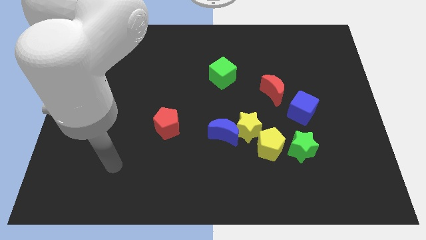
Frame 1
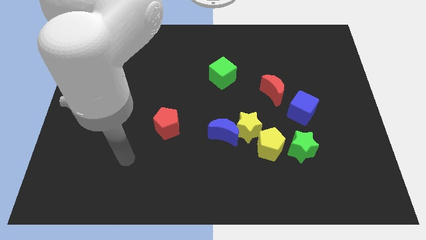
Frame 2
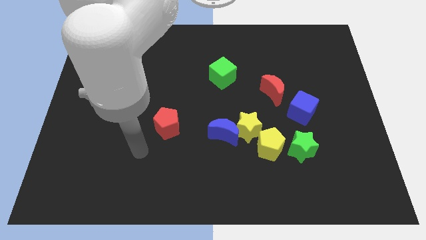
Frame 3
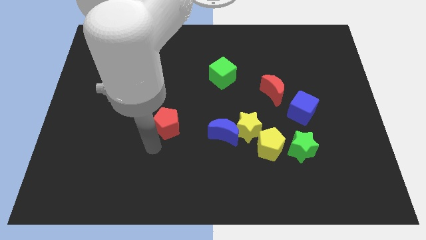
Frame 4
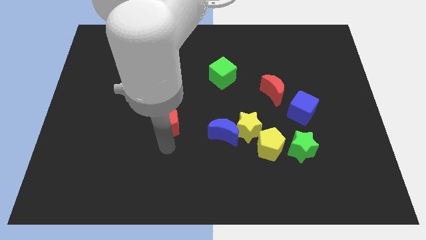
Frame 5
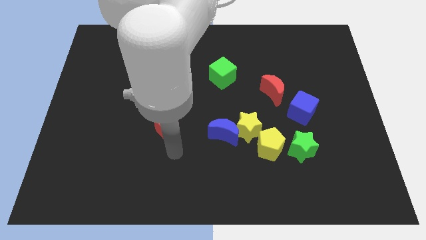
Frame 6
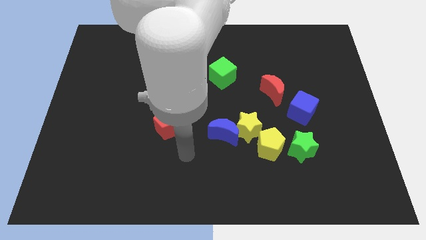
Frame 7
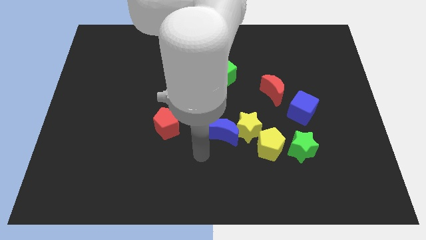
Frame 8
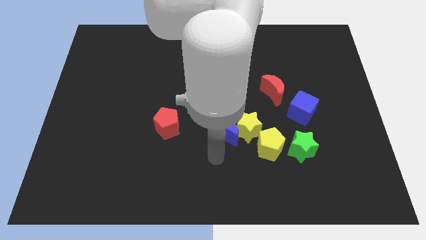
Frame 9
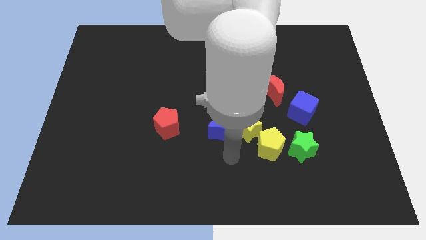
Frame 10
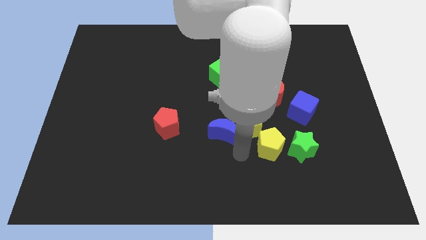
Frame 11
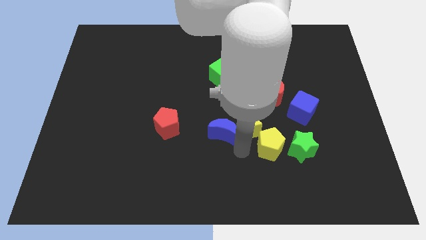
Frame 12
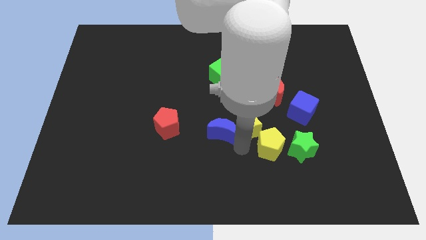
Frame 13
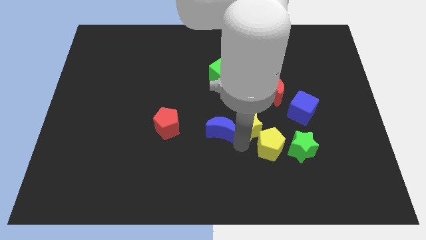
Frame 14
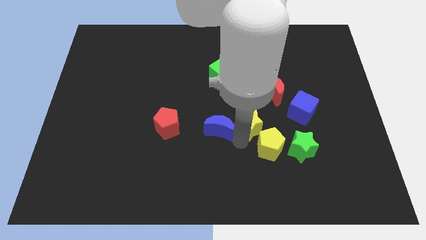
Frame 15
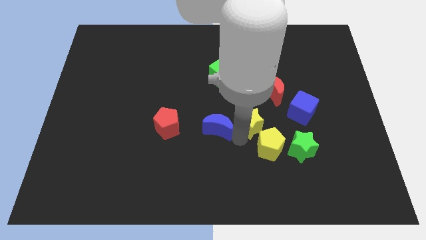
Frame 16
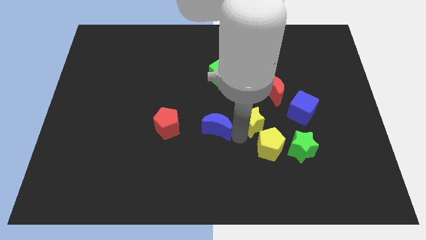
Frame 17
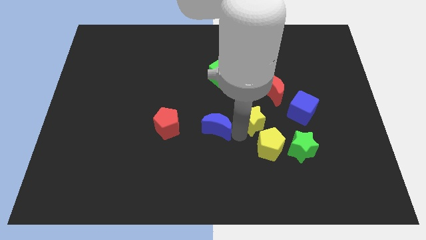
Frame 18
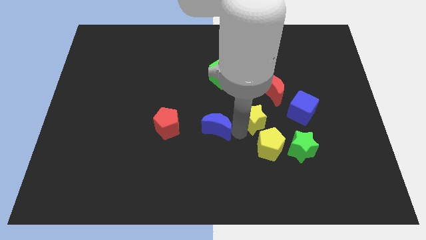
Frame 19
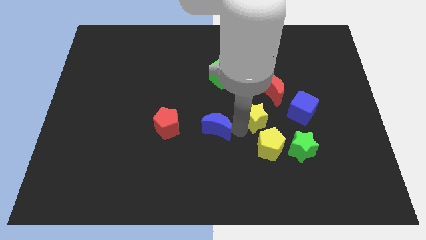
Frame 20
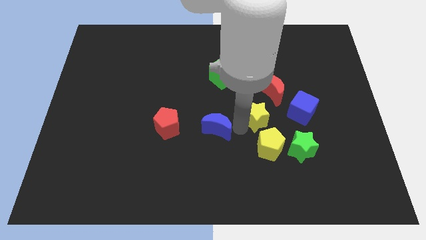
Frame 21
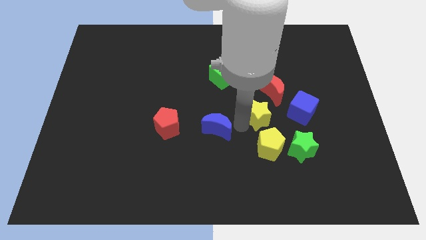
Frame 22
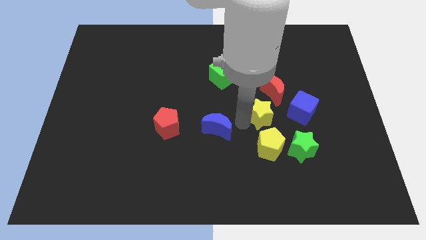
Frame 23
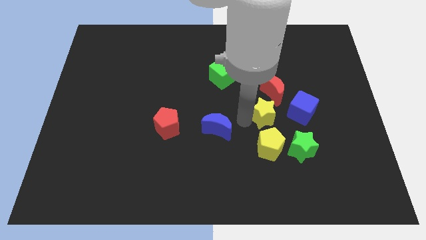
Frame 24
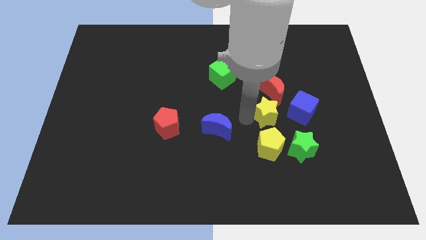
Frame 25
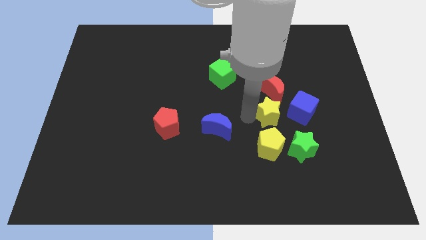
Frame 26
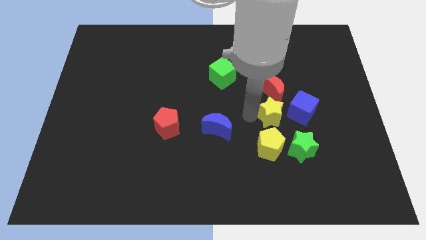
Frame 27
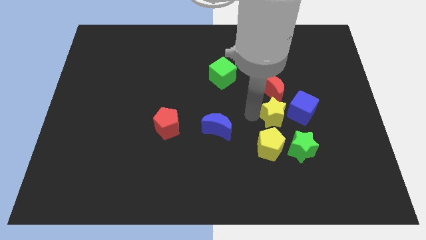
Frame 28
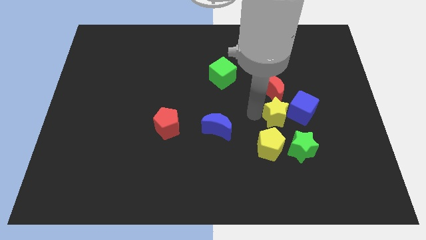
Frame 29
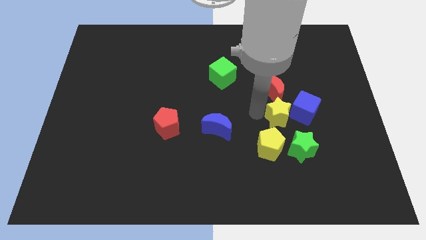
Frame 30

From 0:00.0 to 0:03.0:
pull the yellow star apart from the blue moon and yellow pentagon

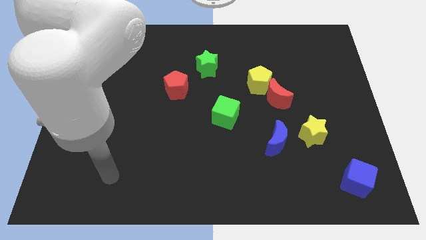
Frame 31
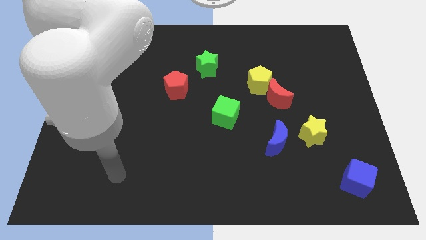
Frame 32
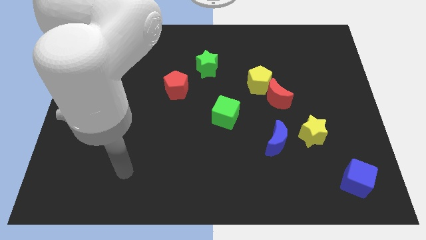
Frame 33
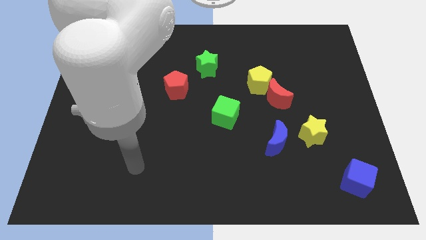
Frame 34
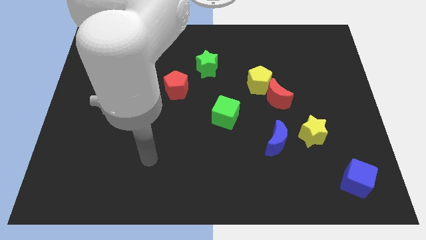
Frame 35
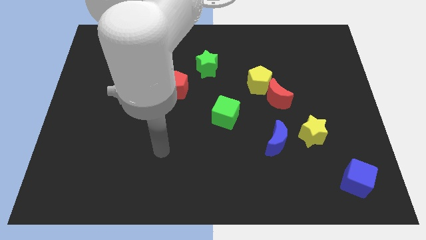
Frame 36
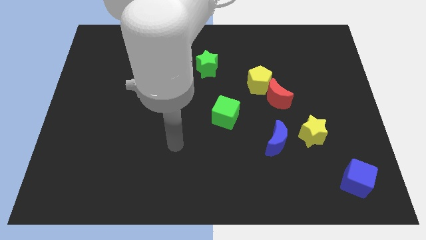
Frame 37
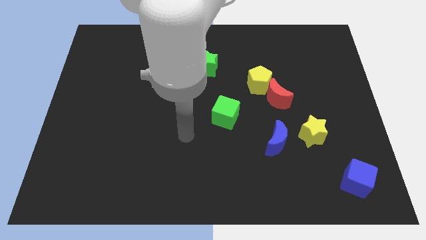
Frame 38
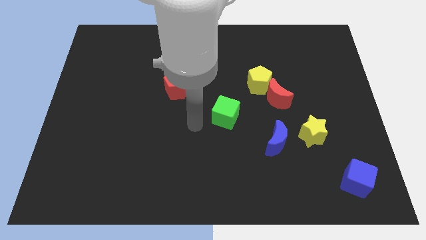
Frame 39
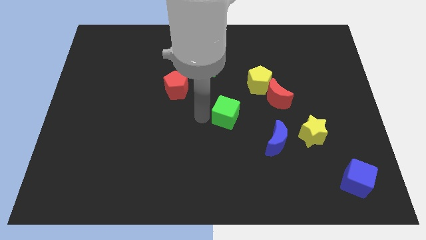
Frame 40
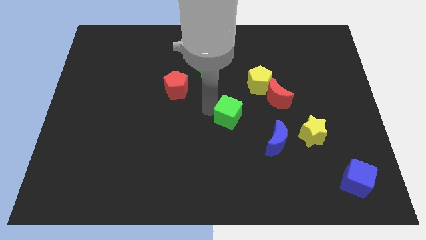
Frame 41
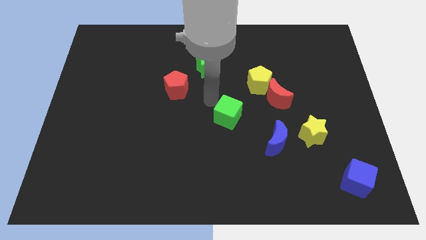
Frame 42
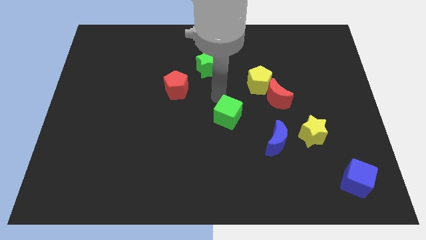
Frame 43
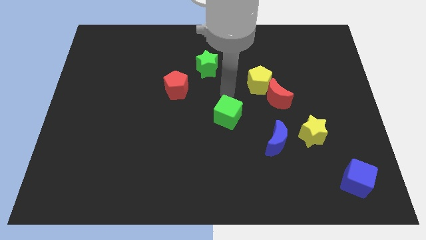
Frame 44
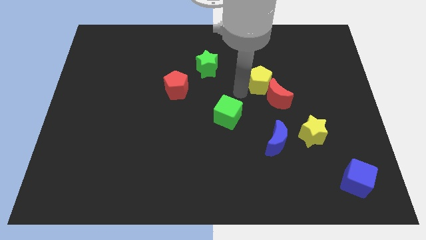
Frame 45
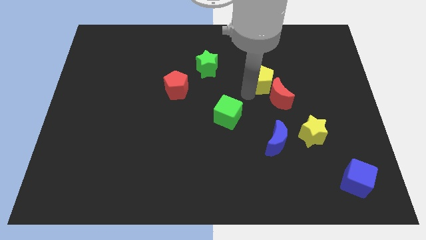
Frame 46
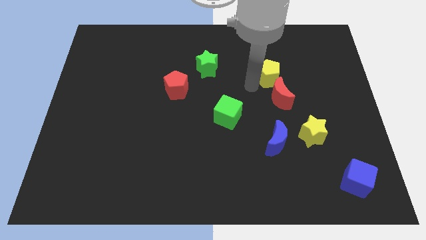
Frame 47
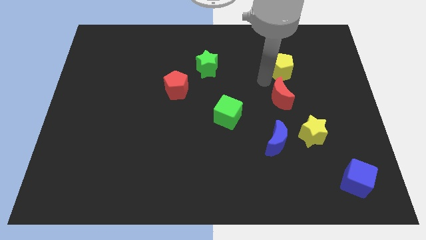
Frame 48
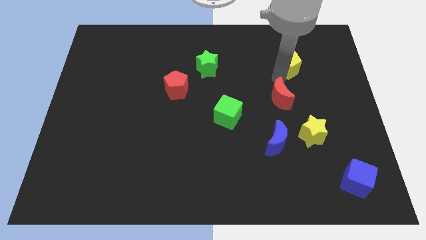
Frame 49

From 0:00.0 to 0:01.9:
separate the red moon from the yellow pentagon

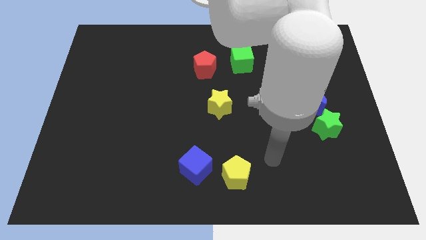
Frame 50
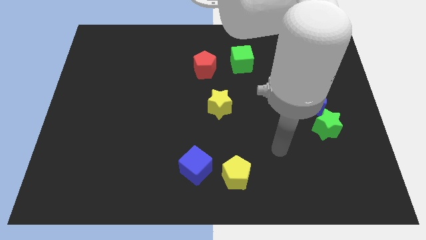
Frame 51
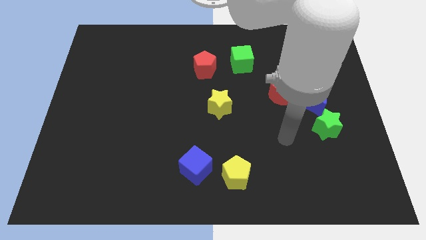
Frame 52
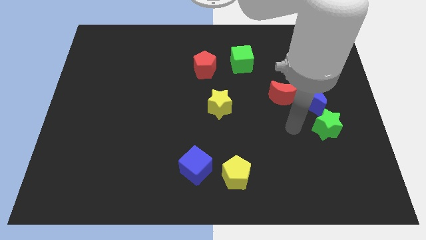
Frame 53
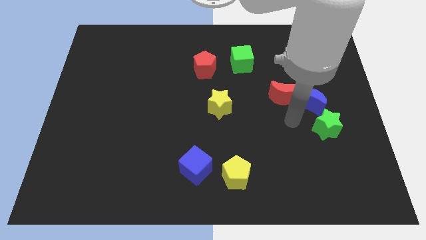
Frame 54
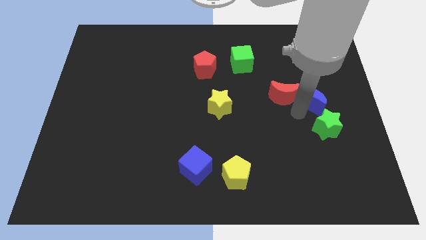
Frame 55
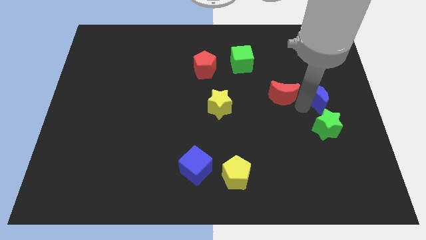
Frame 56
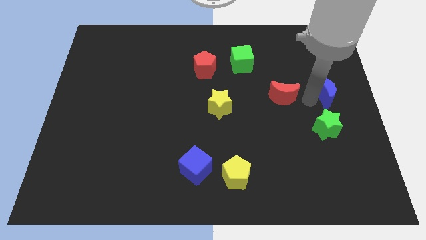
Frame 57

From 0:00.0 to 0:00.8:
pull the red moon apart from the blue moon

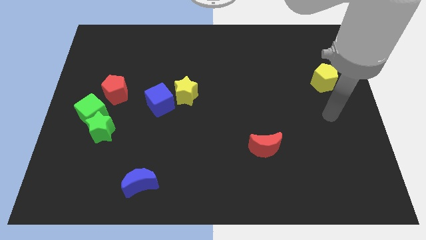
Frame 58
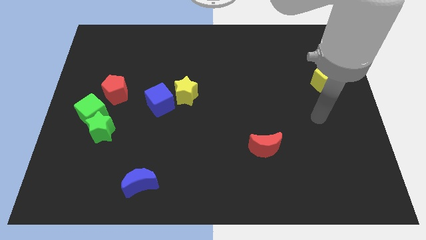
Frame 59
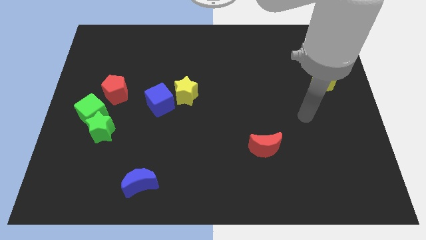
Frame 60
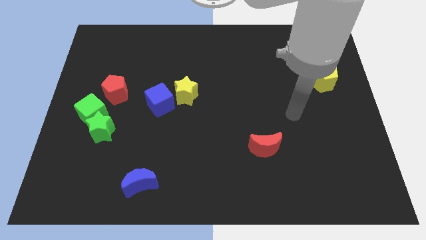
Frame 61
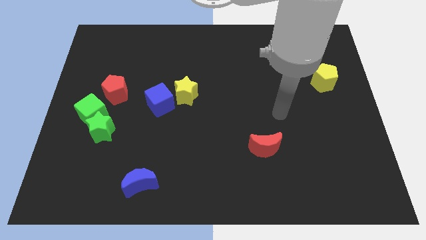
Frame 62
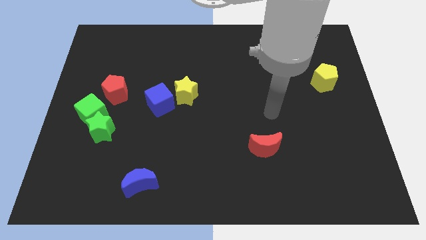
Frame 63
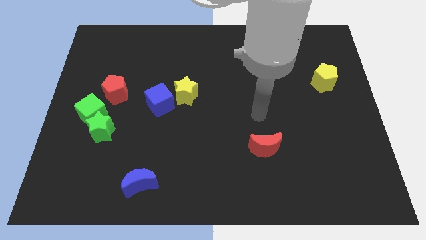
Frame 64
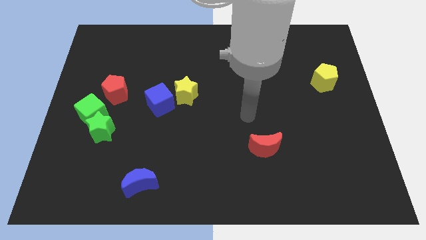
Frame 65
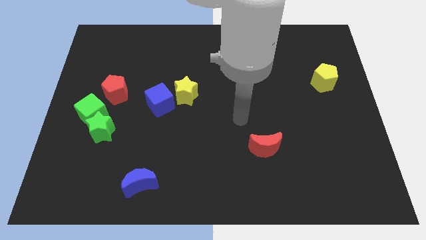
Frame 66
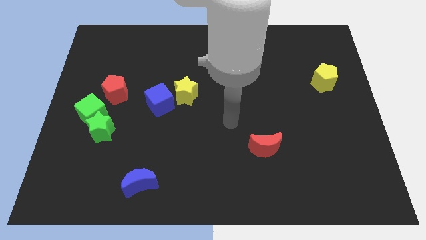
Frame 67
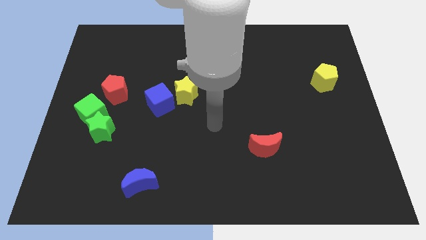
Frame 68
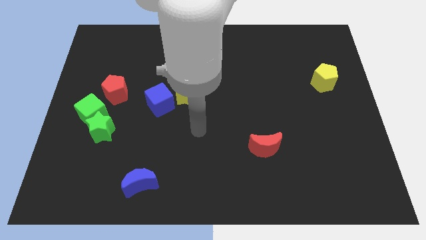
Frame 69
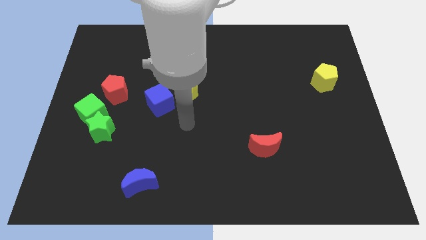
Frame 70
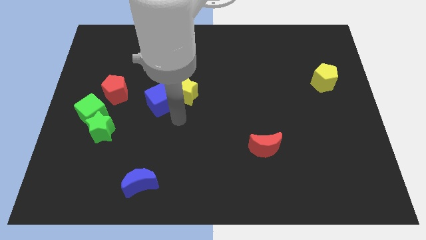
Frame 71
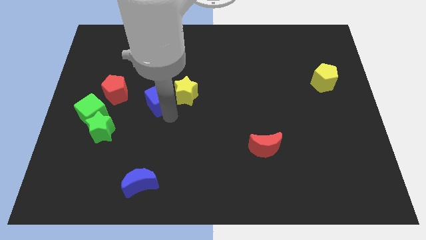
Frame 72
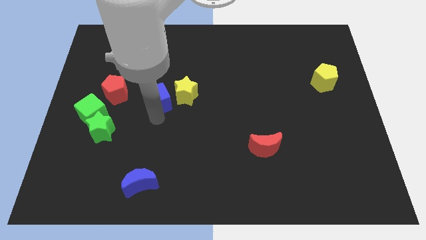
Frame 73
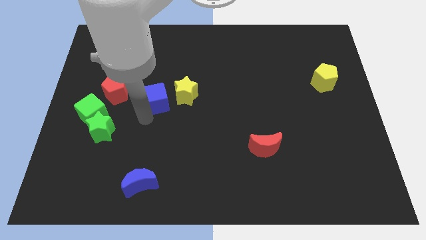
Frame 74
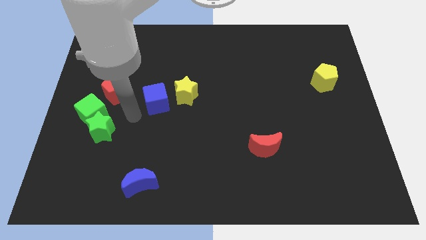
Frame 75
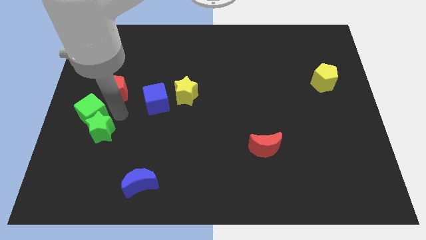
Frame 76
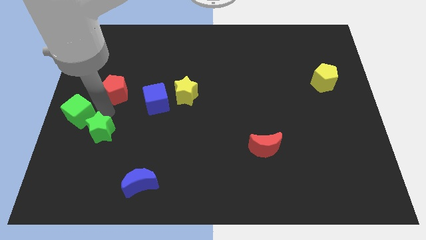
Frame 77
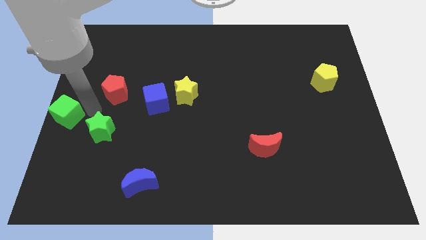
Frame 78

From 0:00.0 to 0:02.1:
separate the green star from the green cube

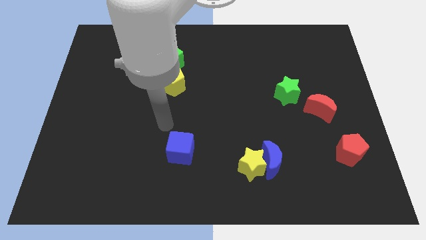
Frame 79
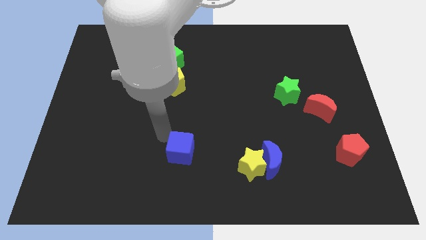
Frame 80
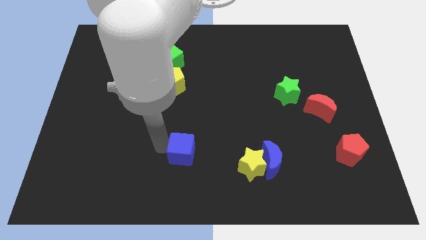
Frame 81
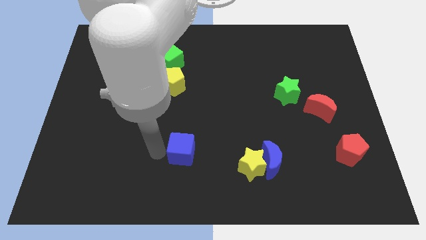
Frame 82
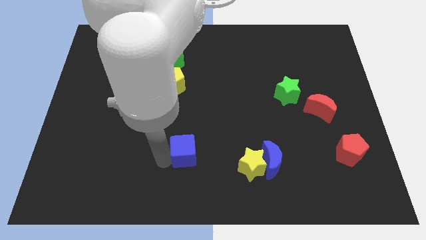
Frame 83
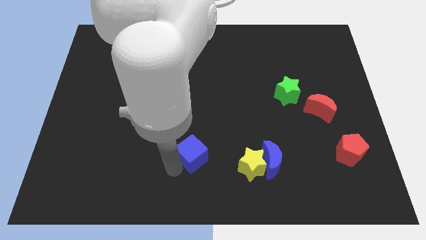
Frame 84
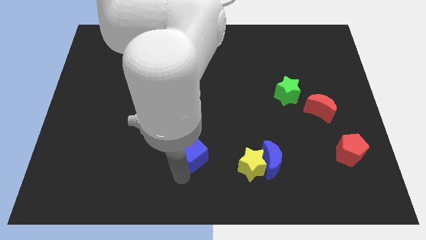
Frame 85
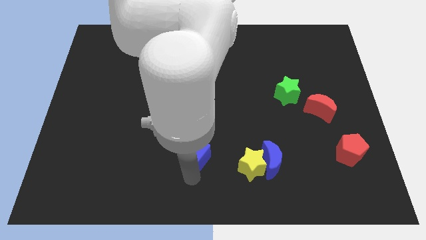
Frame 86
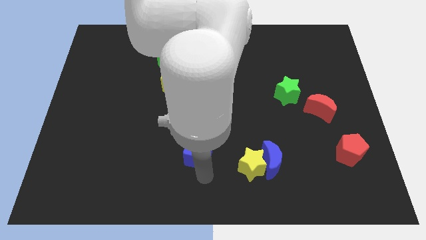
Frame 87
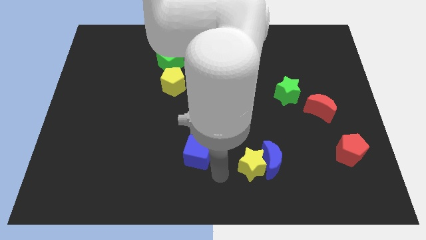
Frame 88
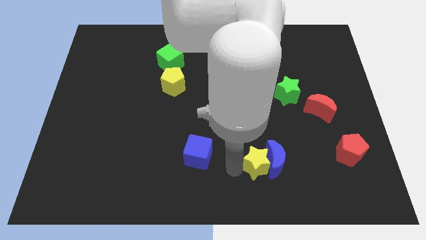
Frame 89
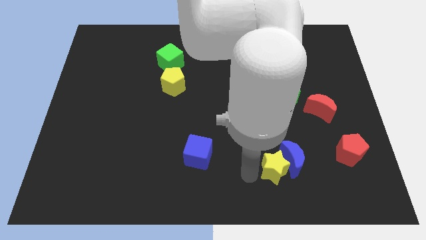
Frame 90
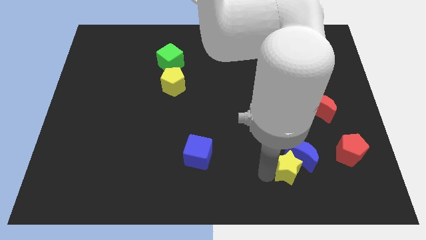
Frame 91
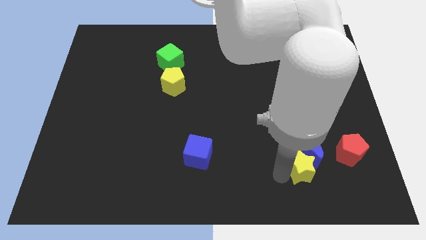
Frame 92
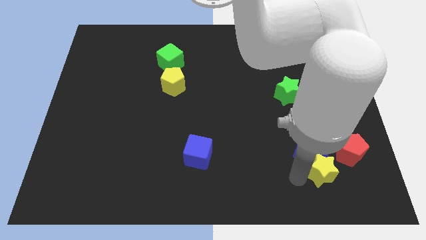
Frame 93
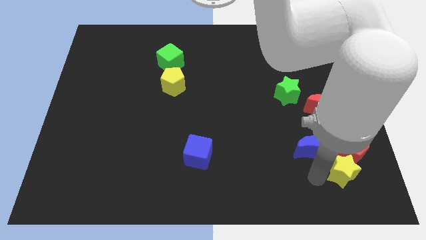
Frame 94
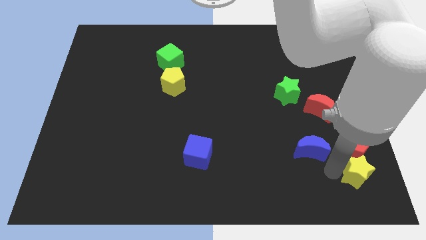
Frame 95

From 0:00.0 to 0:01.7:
move the blue moon away from the yellow star
